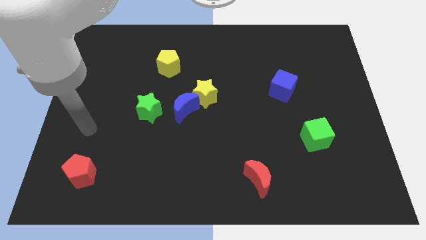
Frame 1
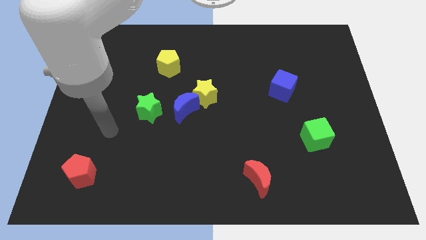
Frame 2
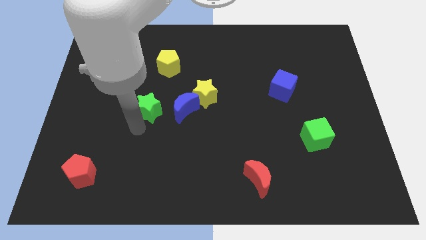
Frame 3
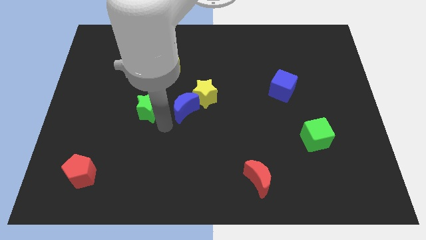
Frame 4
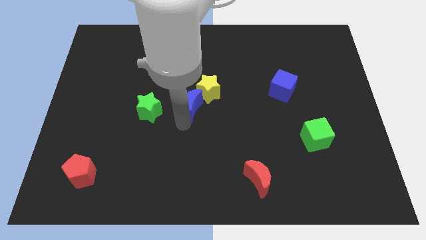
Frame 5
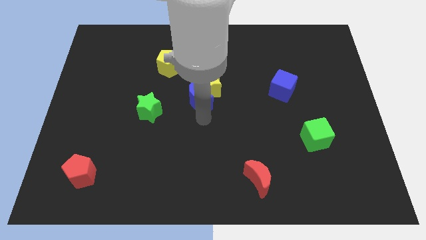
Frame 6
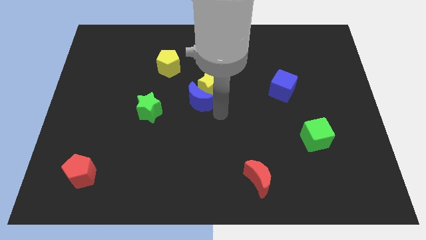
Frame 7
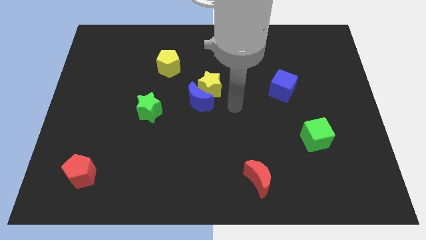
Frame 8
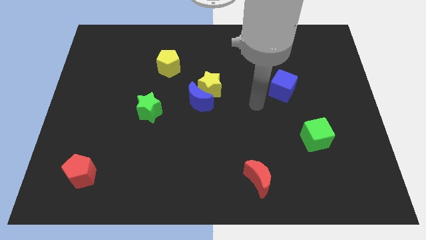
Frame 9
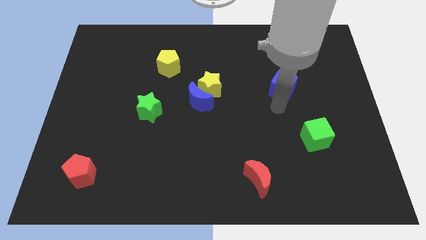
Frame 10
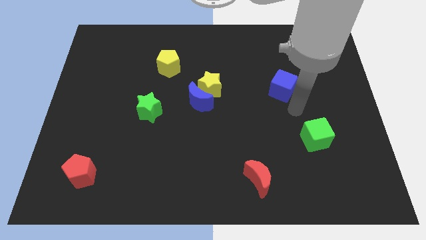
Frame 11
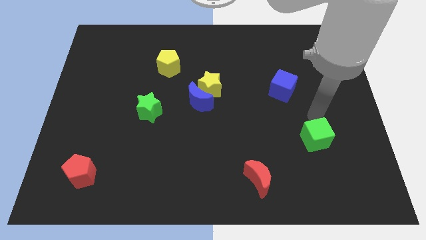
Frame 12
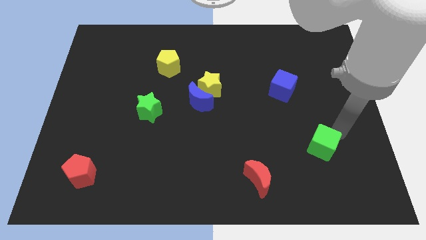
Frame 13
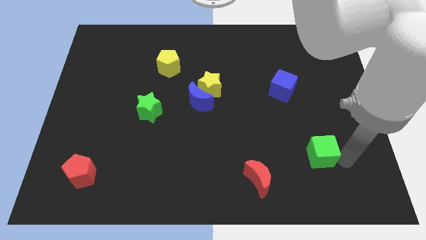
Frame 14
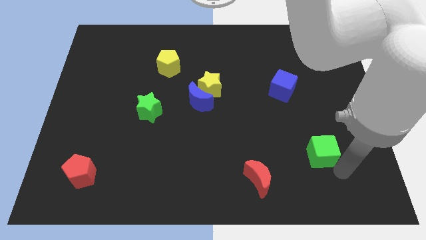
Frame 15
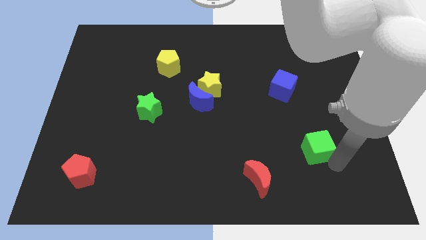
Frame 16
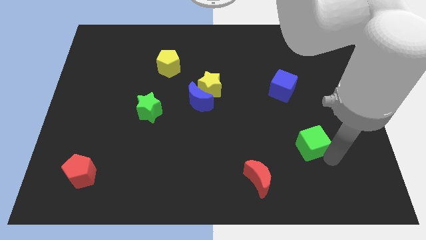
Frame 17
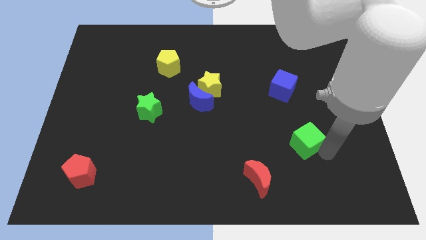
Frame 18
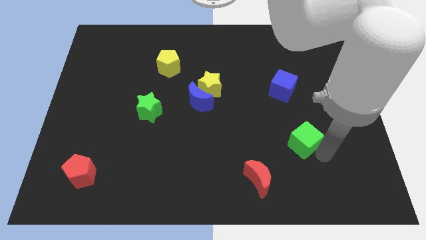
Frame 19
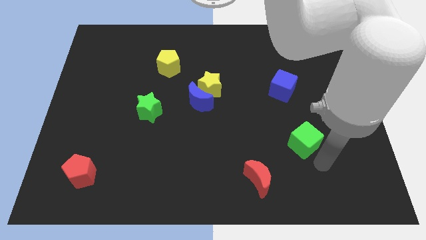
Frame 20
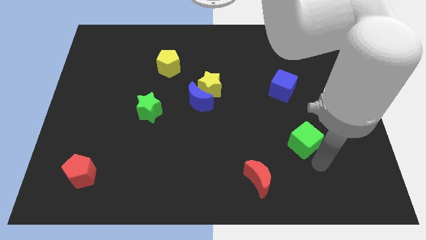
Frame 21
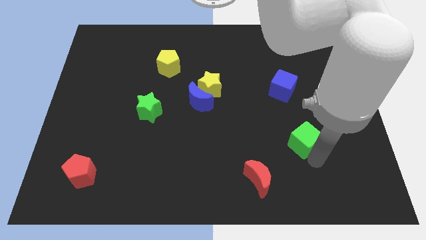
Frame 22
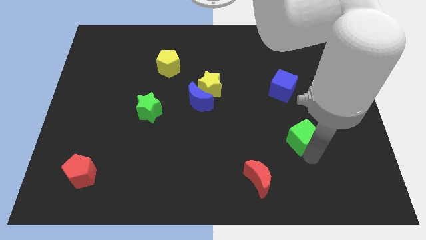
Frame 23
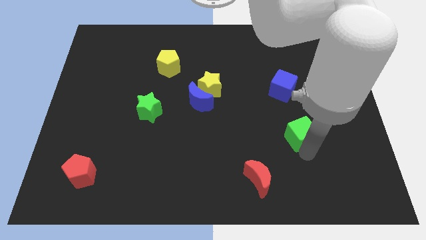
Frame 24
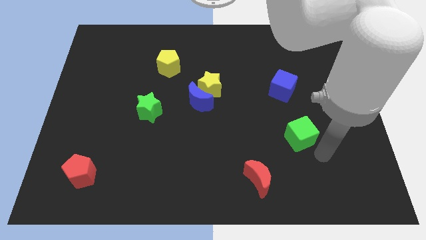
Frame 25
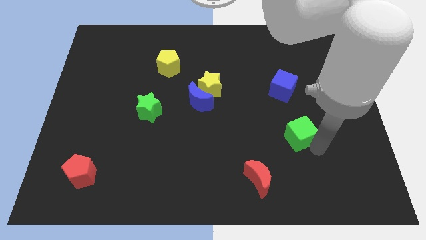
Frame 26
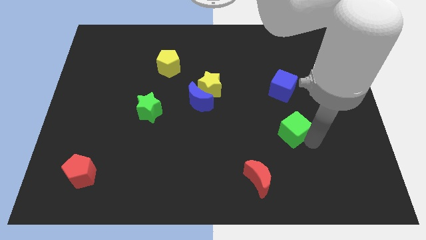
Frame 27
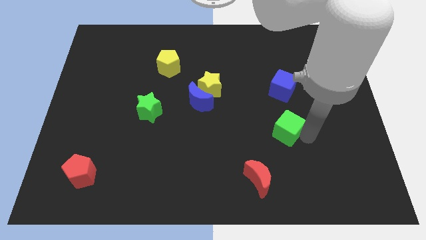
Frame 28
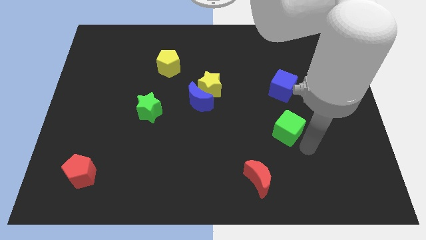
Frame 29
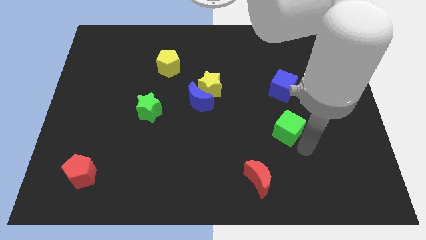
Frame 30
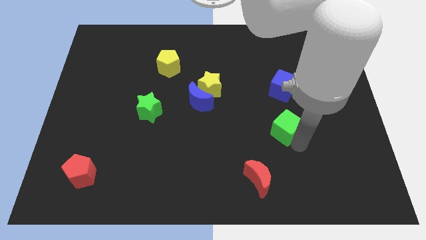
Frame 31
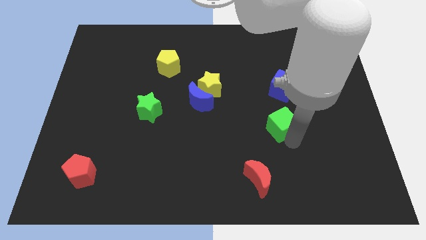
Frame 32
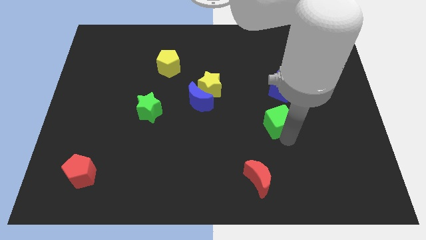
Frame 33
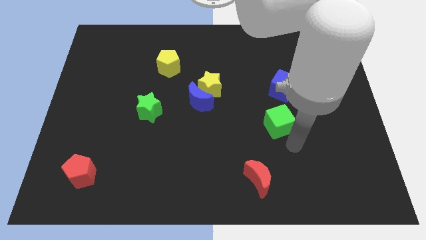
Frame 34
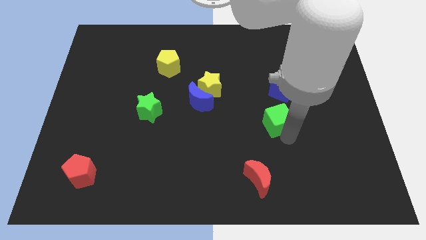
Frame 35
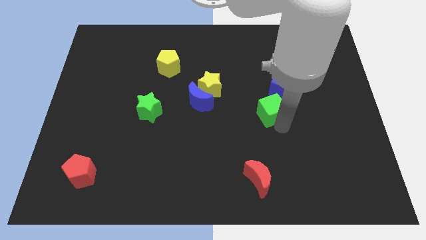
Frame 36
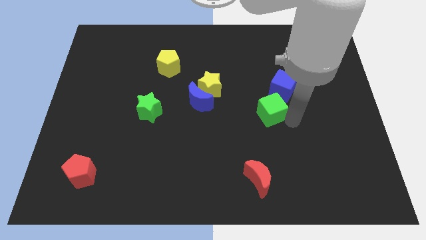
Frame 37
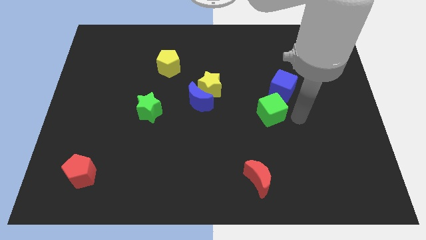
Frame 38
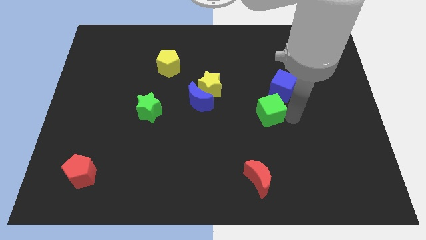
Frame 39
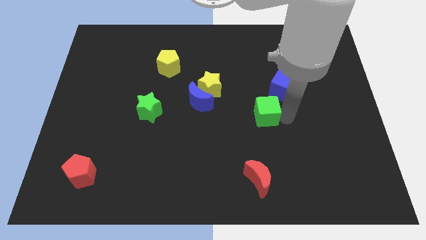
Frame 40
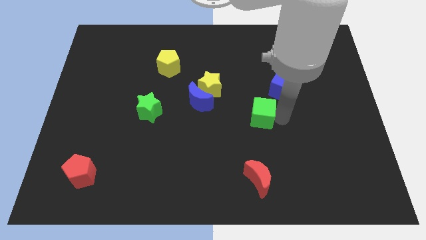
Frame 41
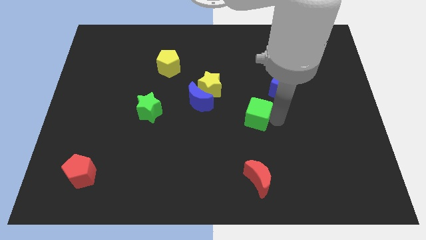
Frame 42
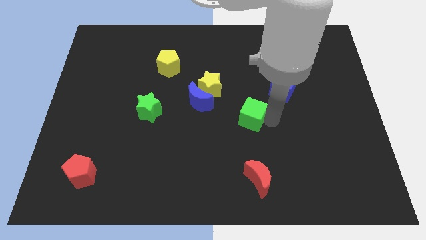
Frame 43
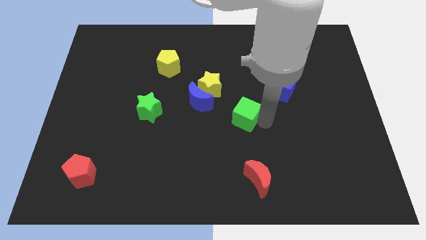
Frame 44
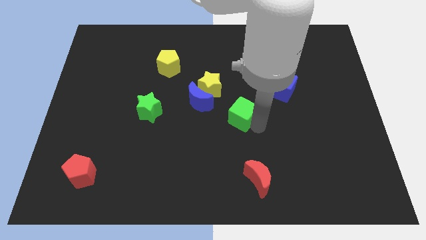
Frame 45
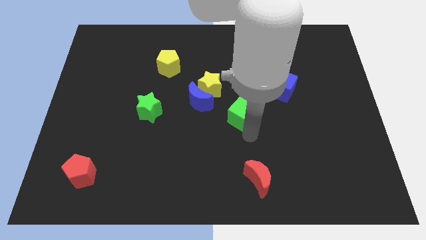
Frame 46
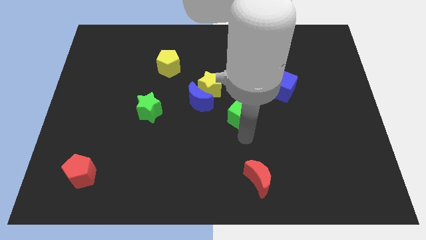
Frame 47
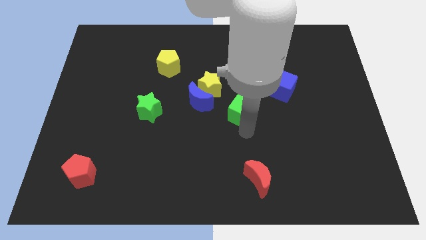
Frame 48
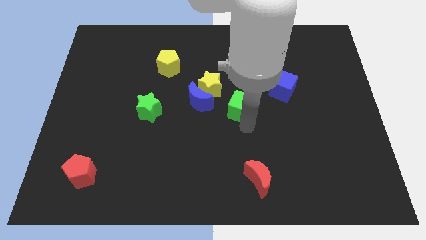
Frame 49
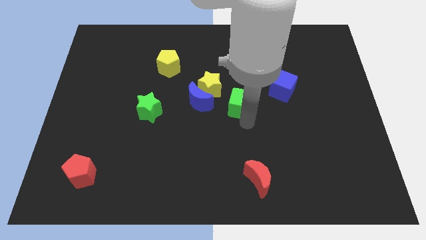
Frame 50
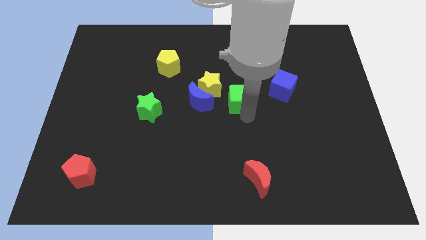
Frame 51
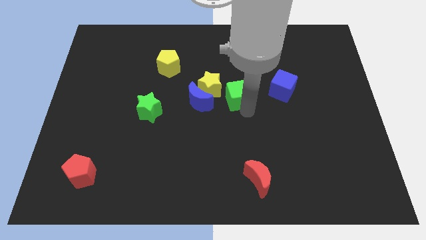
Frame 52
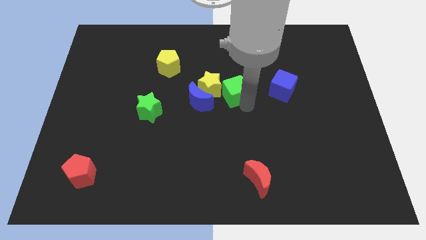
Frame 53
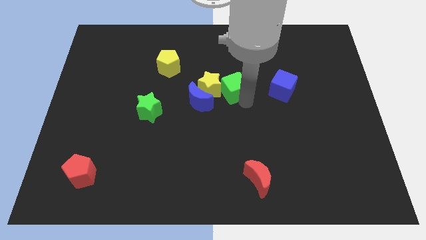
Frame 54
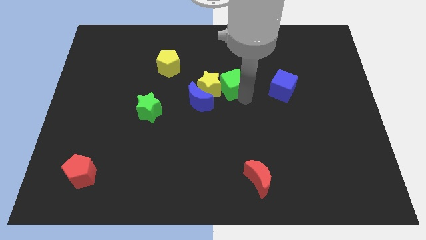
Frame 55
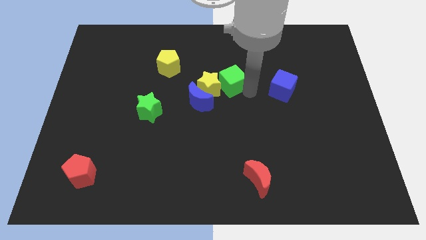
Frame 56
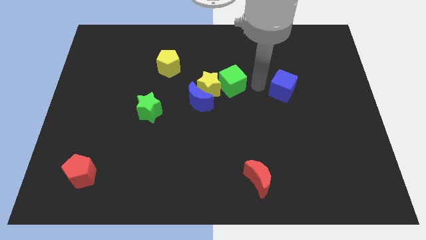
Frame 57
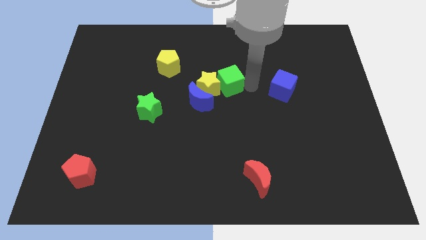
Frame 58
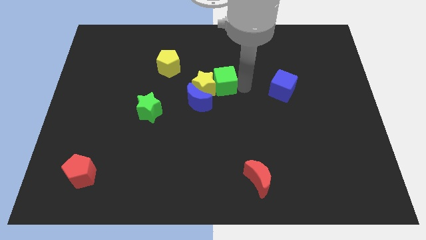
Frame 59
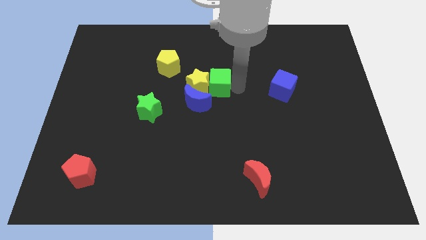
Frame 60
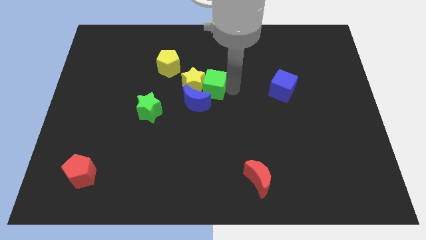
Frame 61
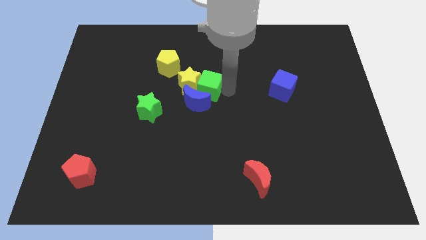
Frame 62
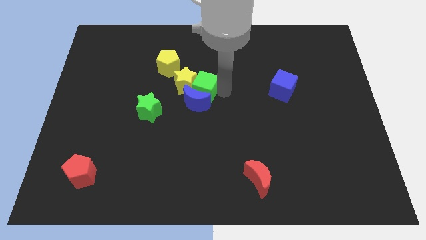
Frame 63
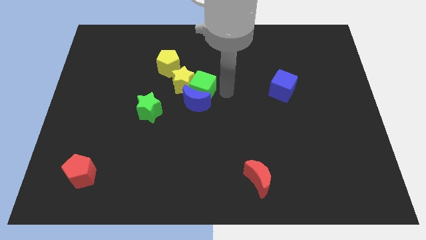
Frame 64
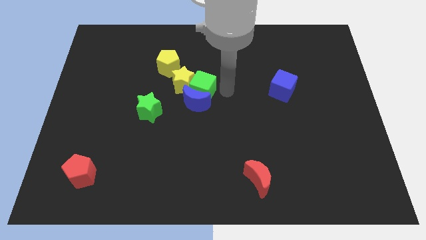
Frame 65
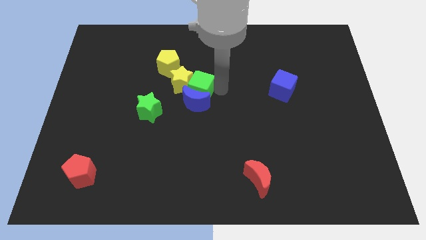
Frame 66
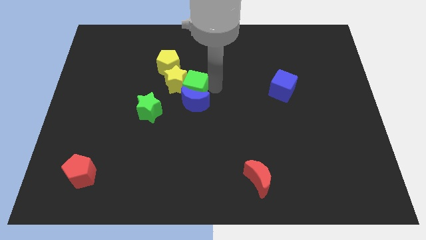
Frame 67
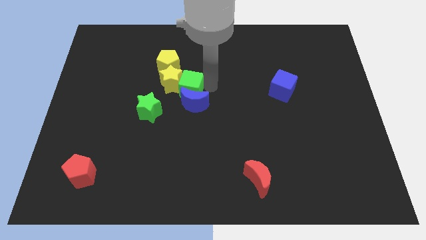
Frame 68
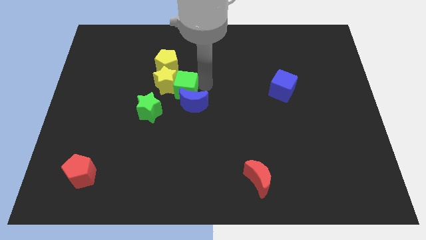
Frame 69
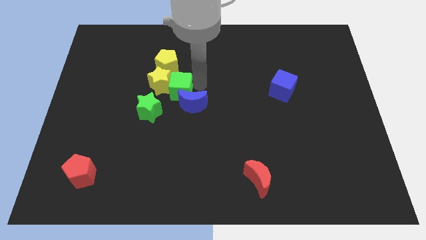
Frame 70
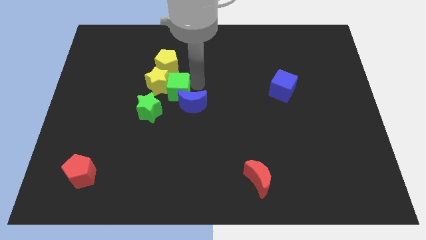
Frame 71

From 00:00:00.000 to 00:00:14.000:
push the green cube just left of the blue moon
